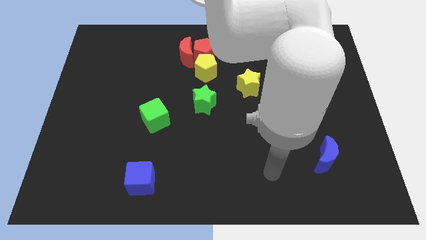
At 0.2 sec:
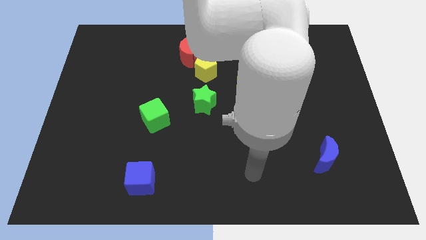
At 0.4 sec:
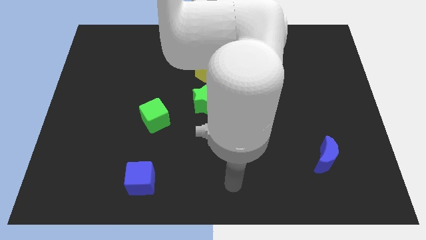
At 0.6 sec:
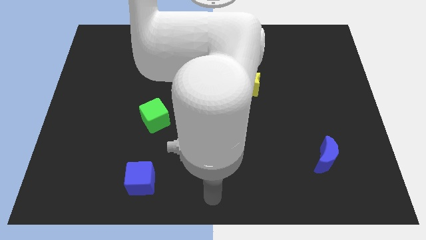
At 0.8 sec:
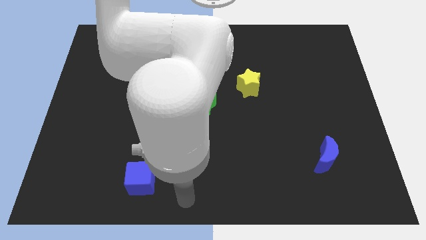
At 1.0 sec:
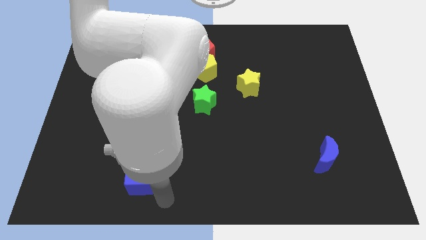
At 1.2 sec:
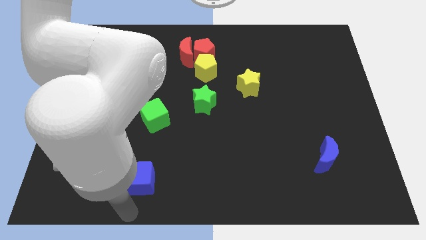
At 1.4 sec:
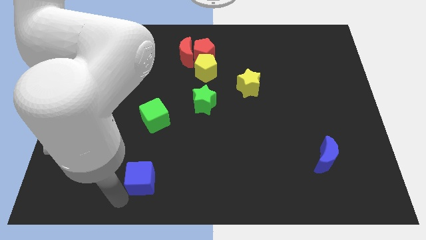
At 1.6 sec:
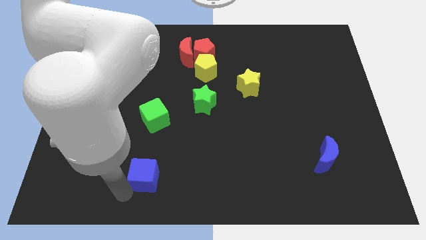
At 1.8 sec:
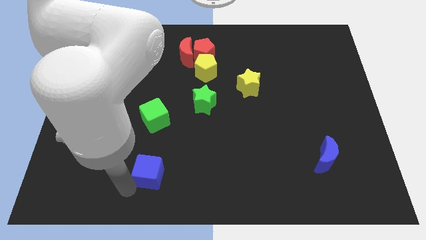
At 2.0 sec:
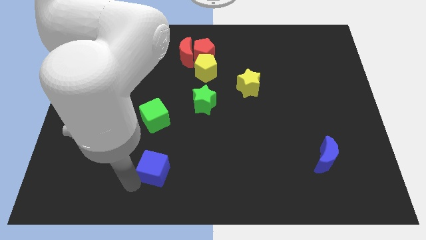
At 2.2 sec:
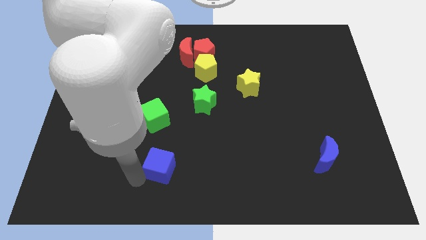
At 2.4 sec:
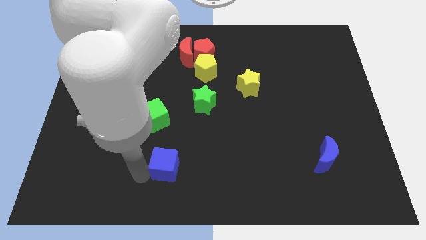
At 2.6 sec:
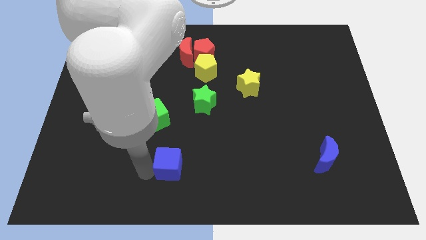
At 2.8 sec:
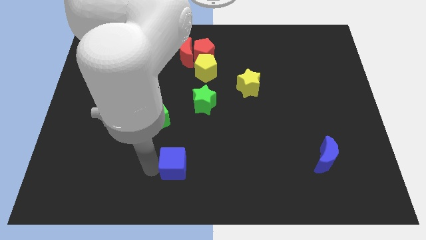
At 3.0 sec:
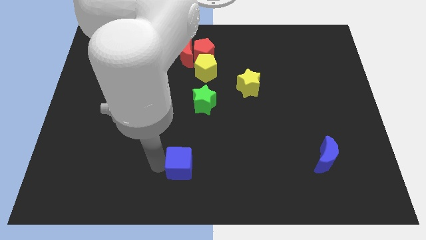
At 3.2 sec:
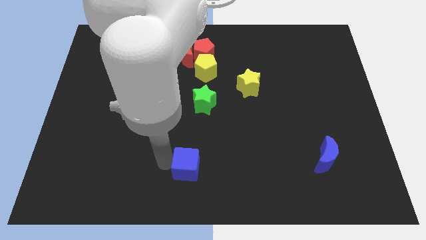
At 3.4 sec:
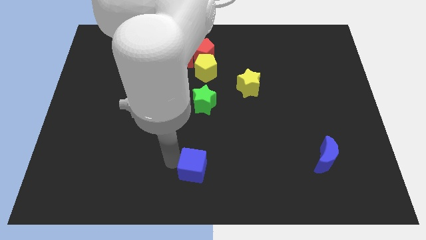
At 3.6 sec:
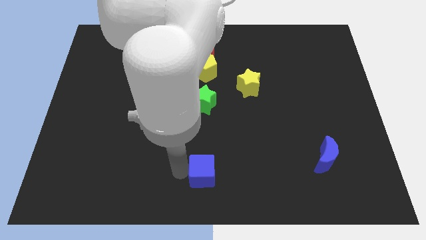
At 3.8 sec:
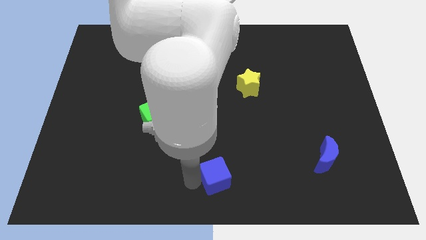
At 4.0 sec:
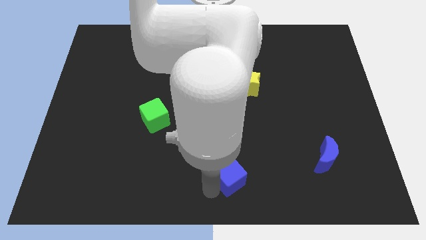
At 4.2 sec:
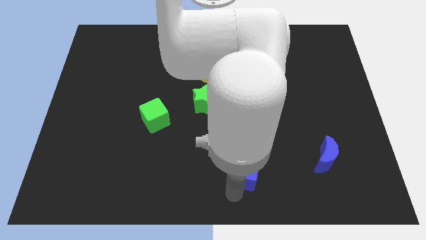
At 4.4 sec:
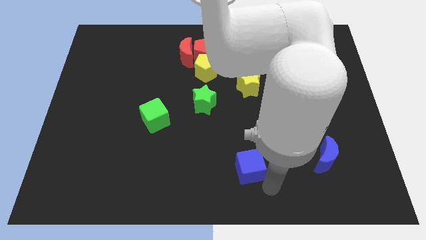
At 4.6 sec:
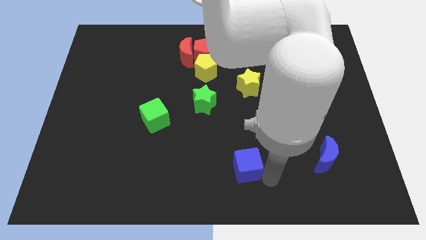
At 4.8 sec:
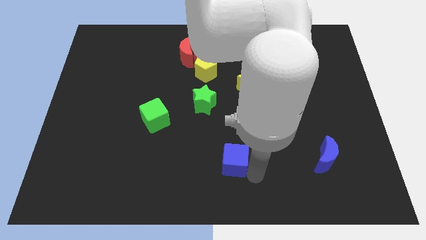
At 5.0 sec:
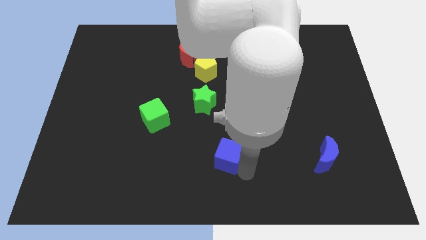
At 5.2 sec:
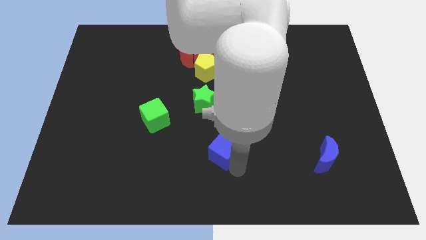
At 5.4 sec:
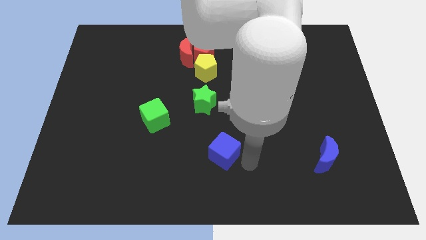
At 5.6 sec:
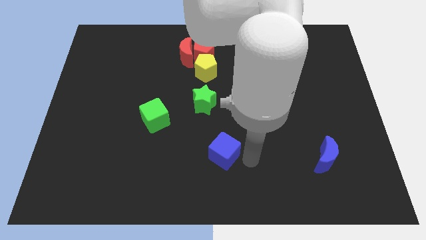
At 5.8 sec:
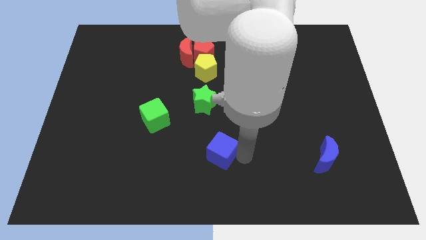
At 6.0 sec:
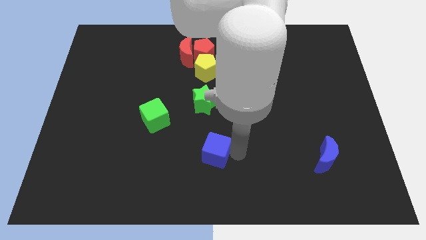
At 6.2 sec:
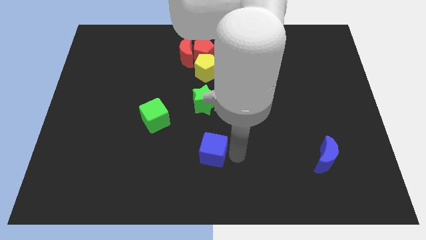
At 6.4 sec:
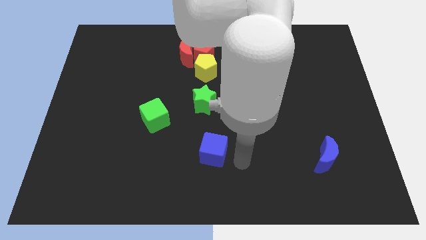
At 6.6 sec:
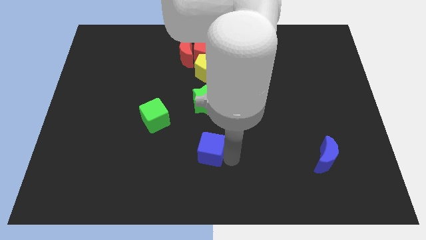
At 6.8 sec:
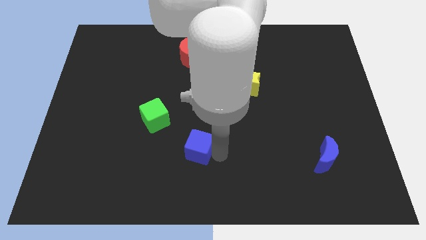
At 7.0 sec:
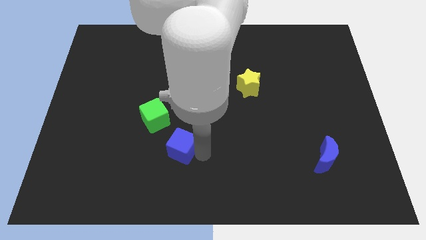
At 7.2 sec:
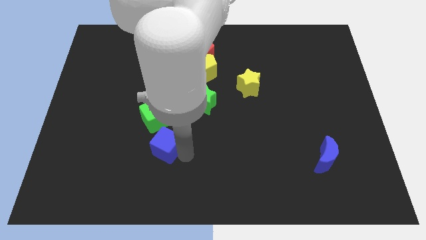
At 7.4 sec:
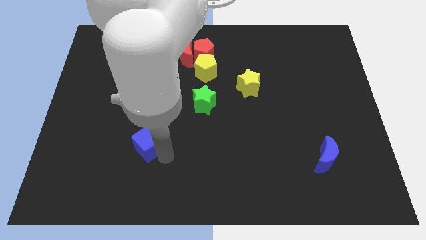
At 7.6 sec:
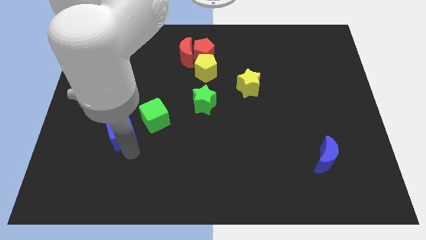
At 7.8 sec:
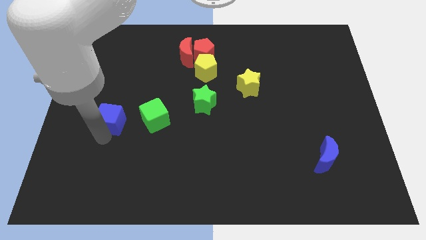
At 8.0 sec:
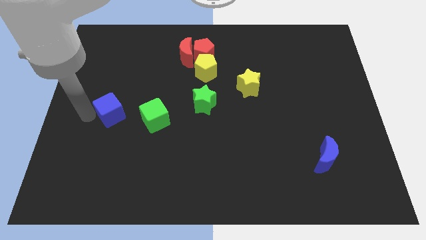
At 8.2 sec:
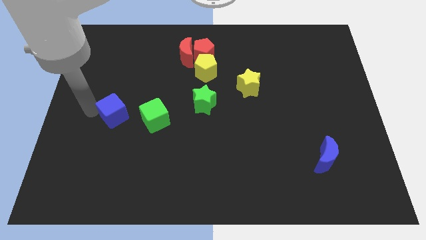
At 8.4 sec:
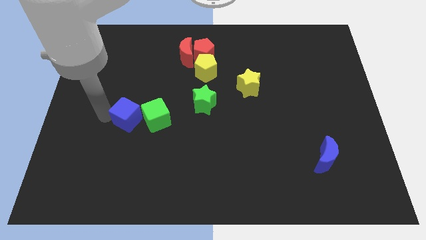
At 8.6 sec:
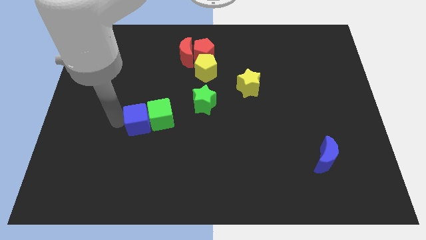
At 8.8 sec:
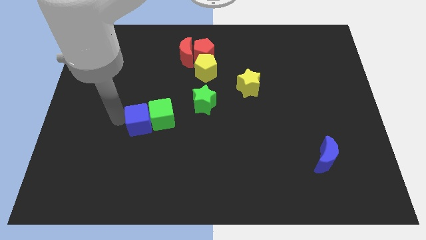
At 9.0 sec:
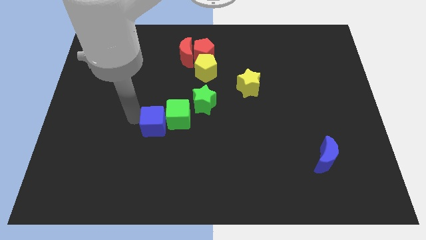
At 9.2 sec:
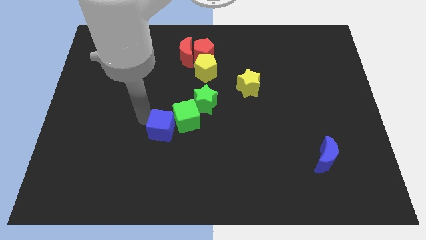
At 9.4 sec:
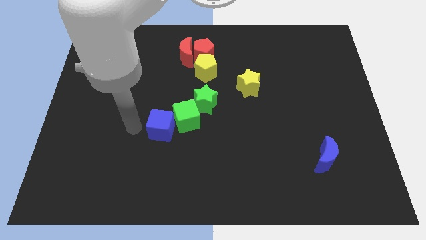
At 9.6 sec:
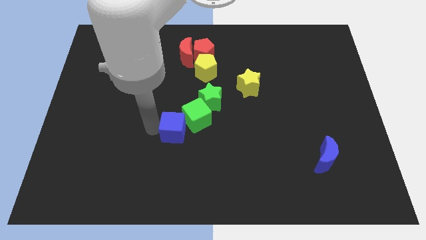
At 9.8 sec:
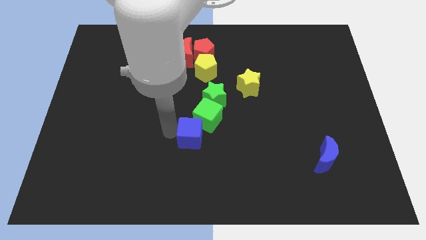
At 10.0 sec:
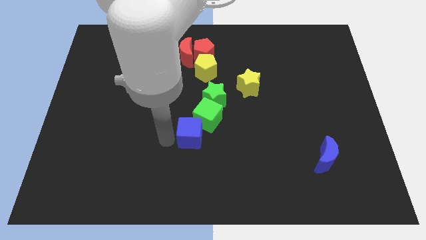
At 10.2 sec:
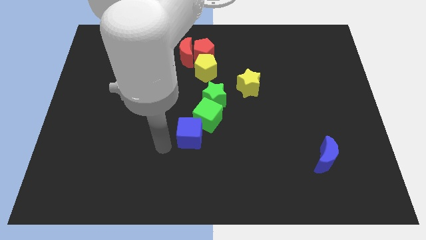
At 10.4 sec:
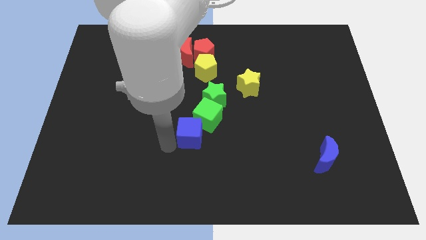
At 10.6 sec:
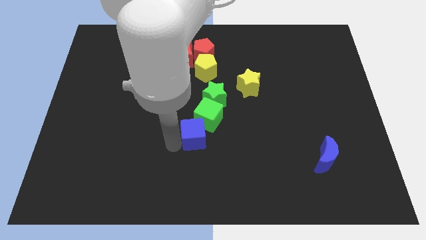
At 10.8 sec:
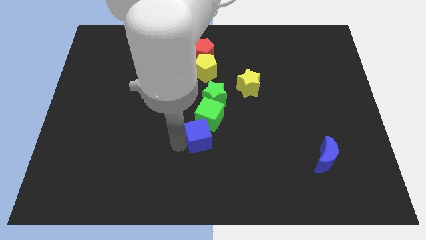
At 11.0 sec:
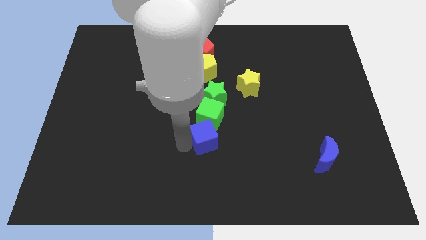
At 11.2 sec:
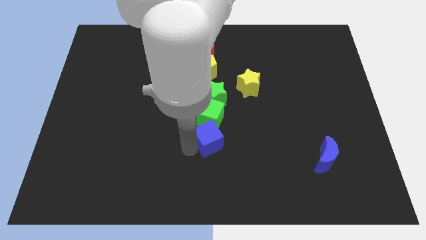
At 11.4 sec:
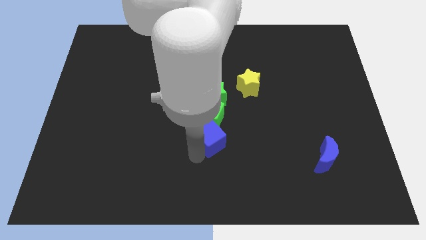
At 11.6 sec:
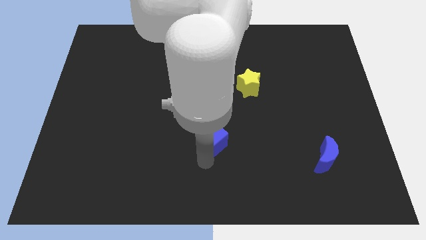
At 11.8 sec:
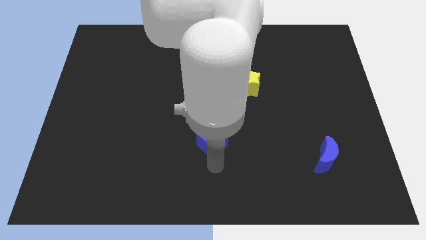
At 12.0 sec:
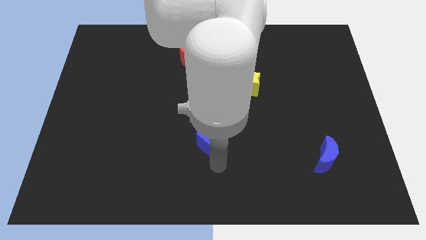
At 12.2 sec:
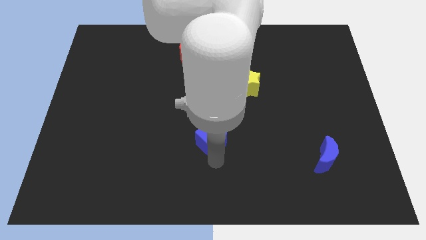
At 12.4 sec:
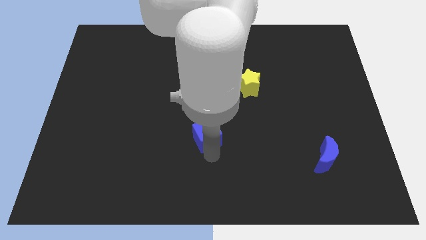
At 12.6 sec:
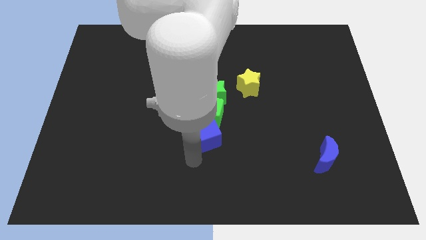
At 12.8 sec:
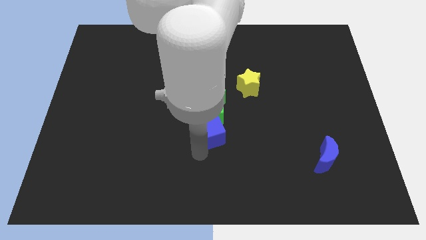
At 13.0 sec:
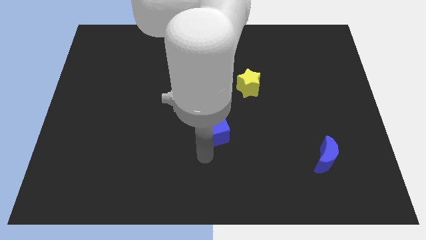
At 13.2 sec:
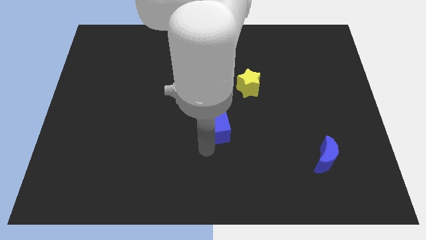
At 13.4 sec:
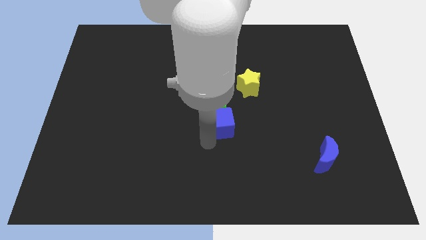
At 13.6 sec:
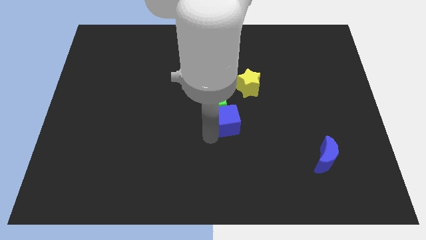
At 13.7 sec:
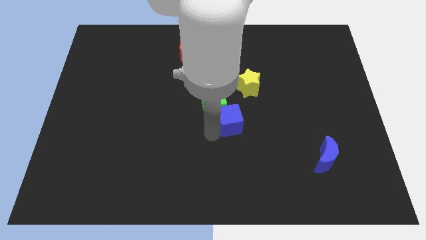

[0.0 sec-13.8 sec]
push the blue cube to the bottom left side of the yellow star

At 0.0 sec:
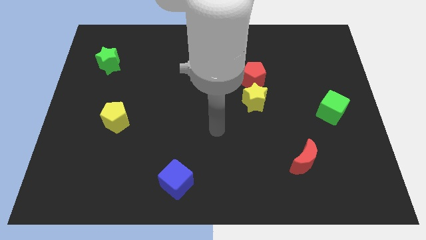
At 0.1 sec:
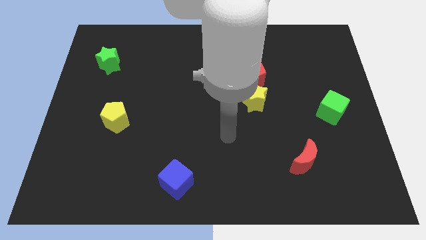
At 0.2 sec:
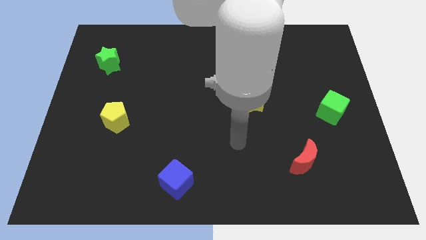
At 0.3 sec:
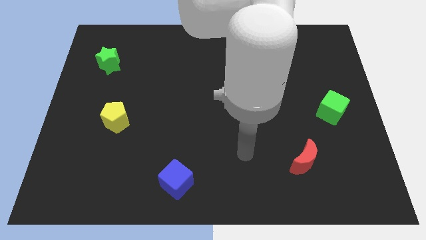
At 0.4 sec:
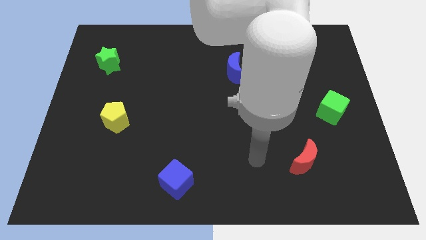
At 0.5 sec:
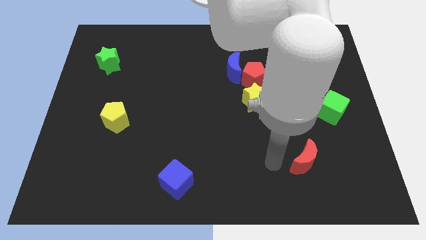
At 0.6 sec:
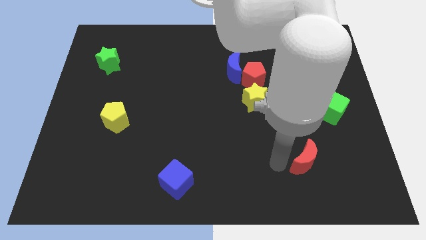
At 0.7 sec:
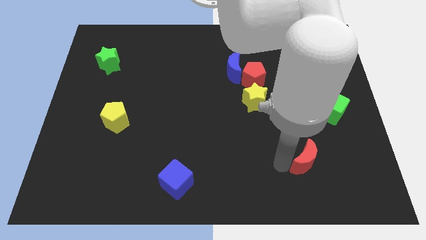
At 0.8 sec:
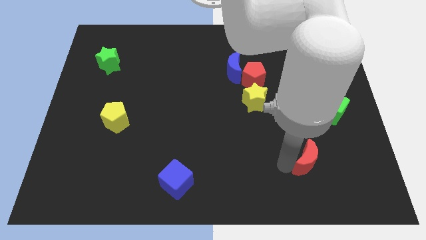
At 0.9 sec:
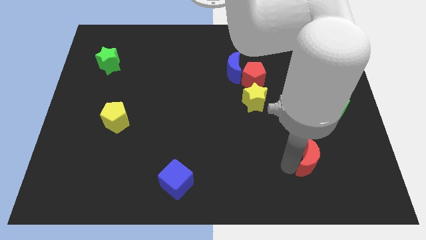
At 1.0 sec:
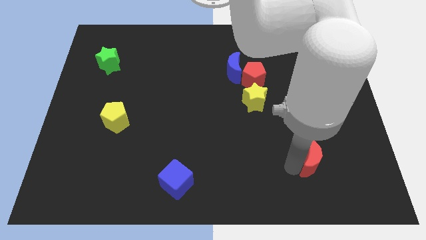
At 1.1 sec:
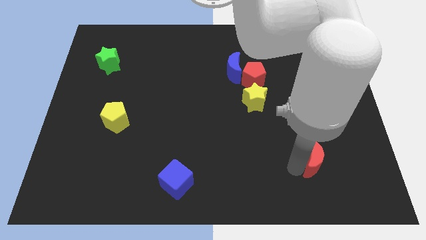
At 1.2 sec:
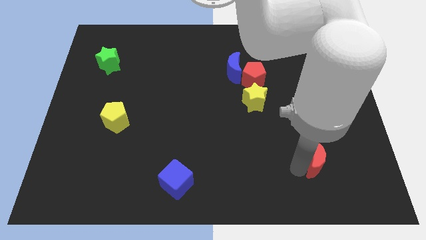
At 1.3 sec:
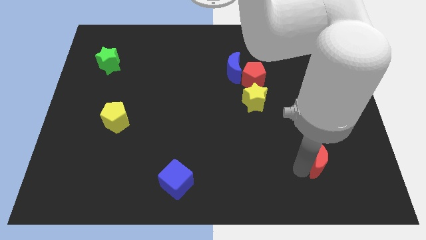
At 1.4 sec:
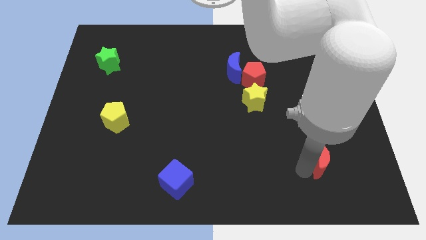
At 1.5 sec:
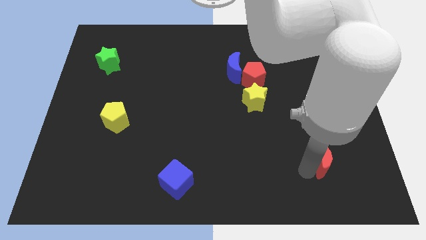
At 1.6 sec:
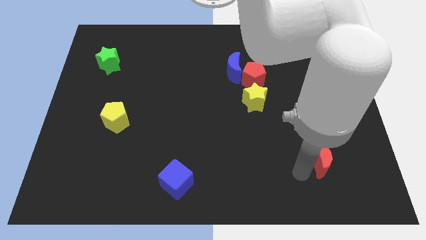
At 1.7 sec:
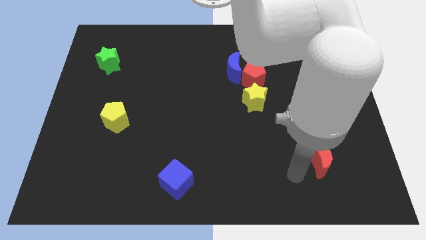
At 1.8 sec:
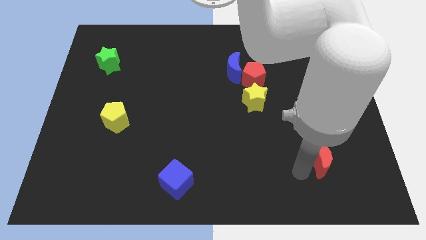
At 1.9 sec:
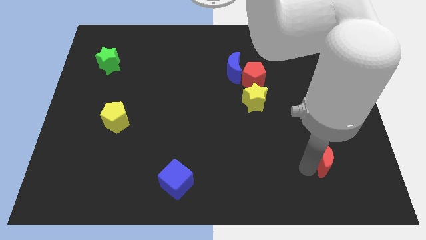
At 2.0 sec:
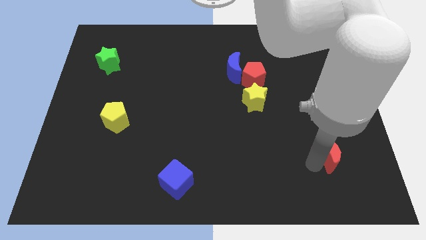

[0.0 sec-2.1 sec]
push the red moon to the bottom of the green cube
